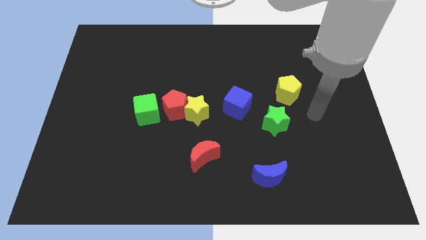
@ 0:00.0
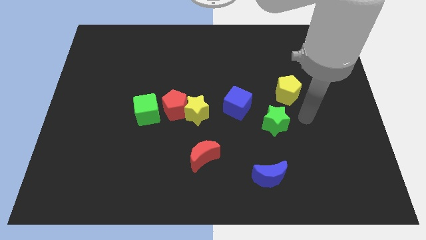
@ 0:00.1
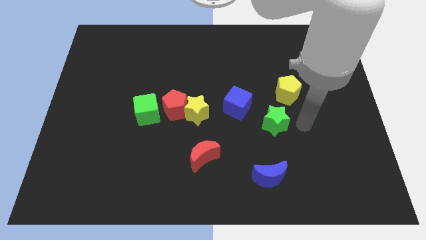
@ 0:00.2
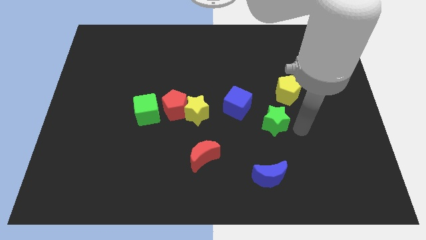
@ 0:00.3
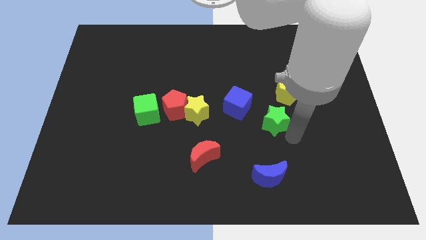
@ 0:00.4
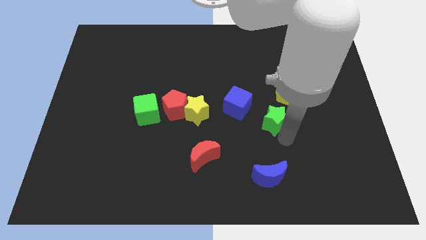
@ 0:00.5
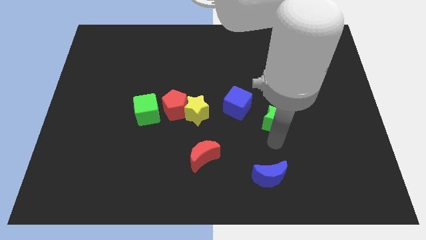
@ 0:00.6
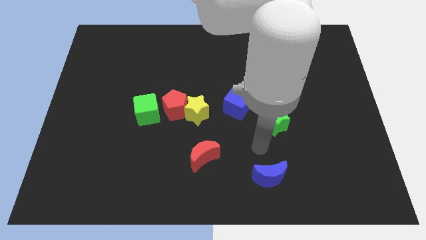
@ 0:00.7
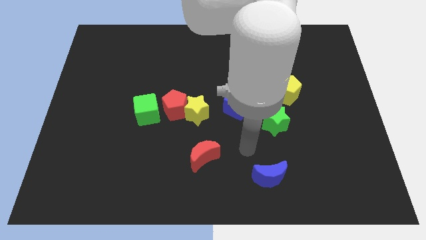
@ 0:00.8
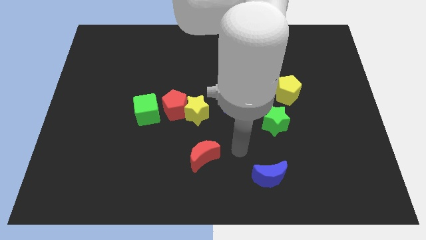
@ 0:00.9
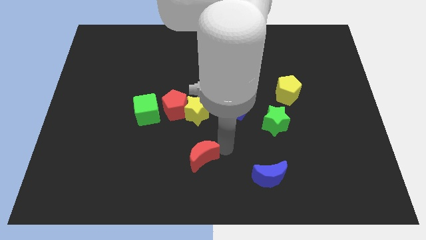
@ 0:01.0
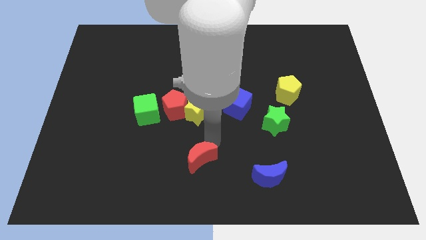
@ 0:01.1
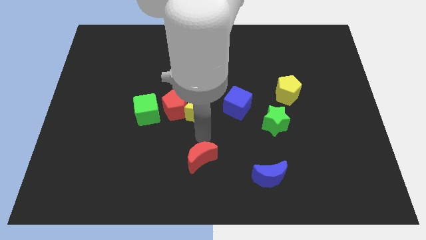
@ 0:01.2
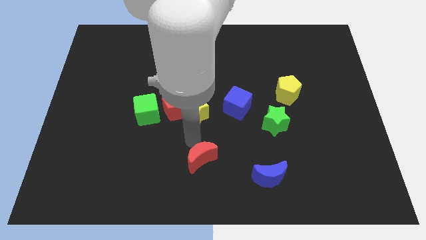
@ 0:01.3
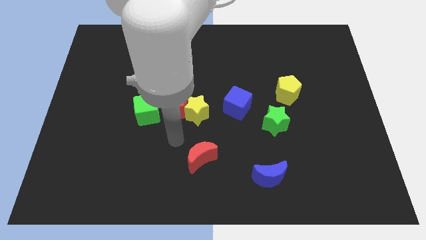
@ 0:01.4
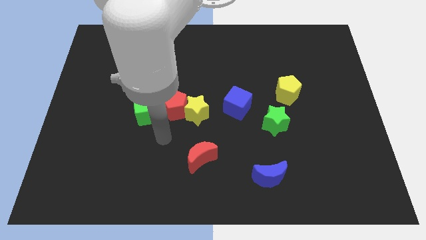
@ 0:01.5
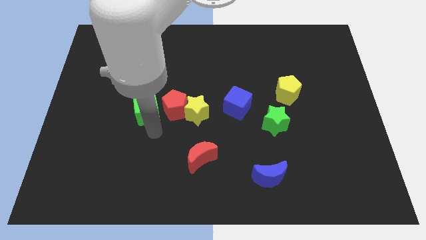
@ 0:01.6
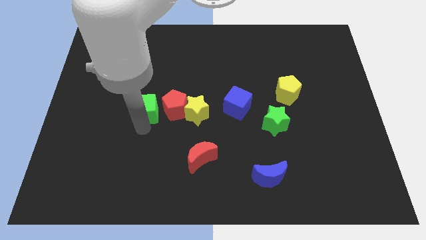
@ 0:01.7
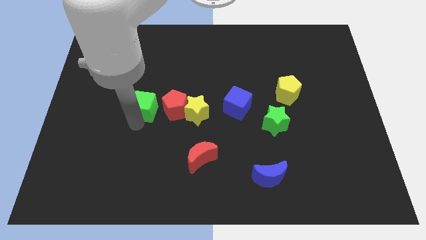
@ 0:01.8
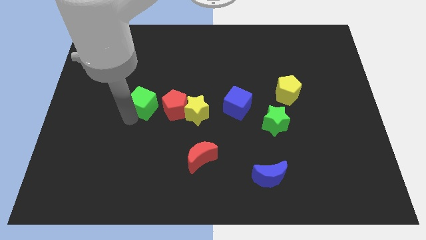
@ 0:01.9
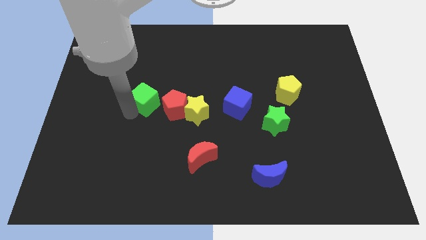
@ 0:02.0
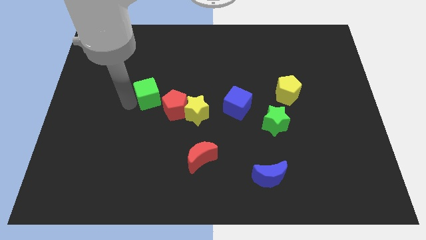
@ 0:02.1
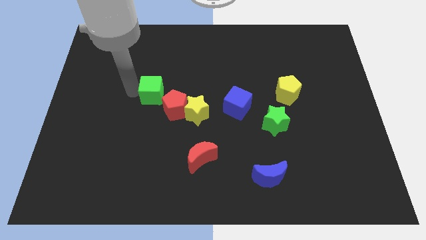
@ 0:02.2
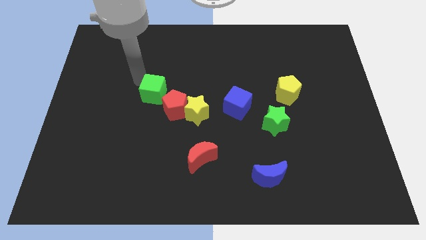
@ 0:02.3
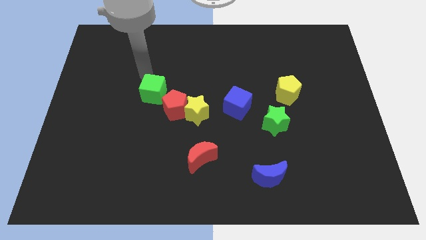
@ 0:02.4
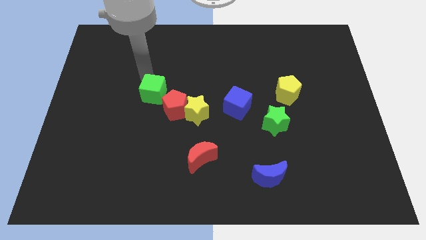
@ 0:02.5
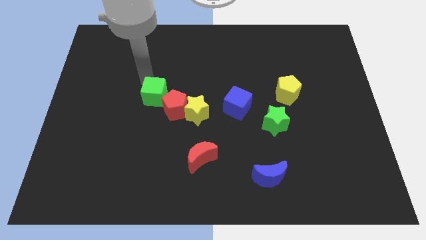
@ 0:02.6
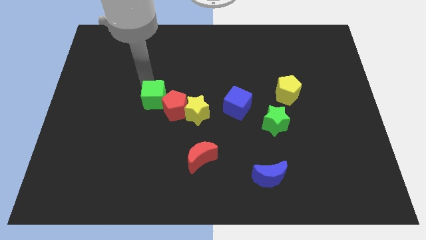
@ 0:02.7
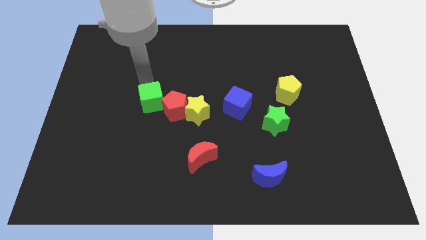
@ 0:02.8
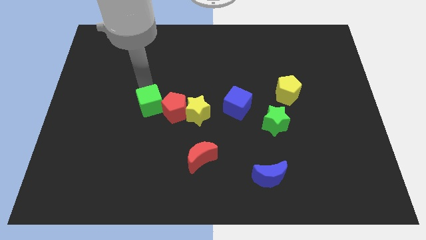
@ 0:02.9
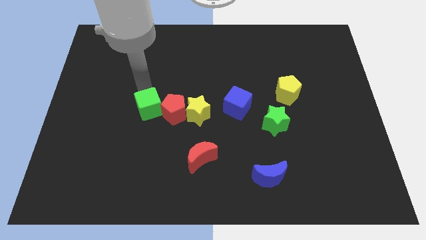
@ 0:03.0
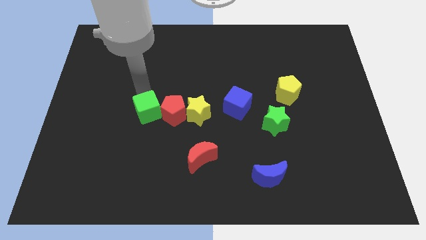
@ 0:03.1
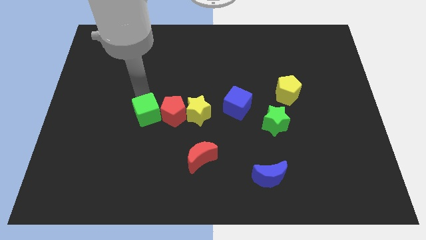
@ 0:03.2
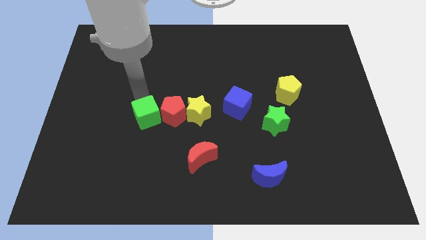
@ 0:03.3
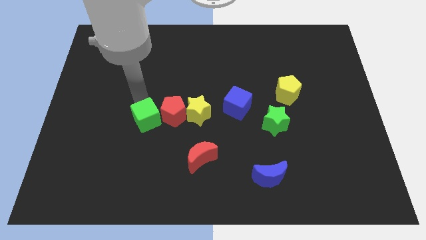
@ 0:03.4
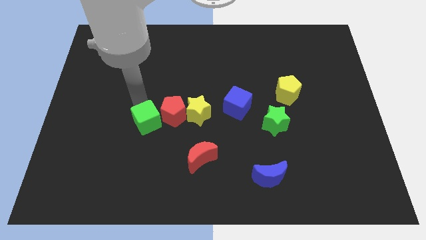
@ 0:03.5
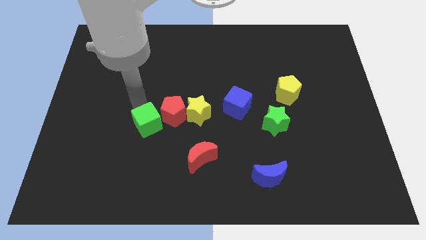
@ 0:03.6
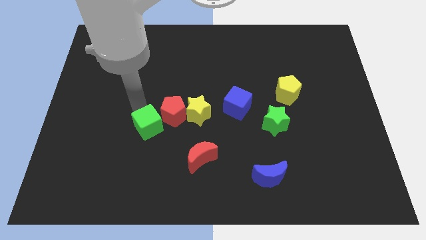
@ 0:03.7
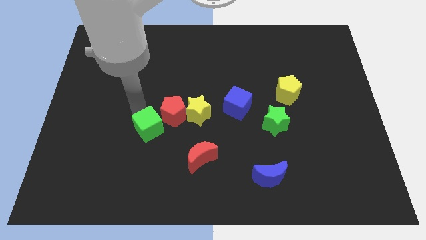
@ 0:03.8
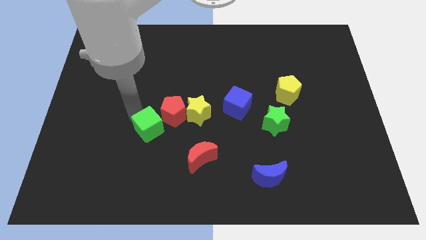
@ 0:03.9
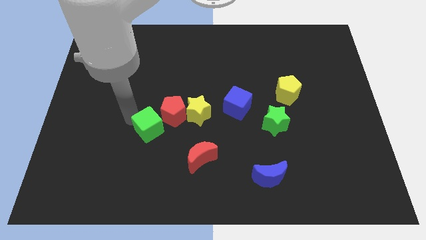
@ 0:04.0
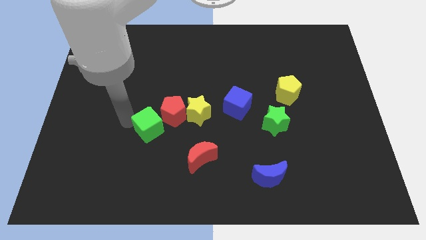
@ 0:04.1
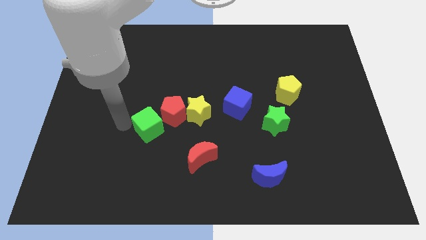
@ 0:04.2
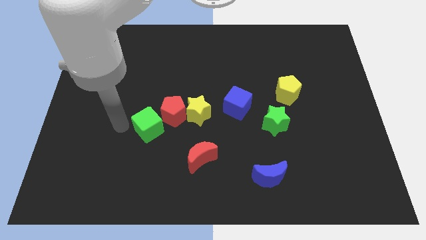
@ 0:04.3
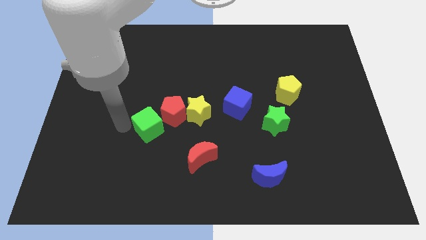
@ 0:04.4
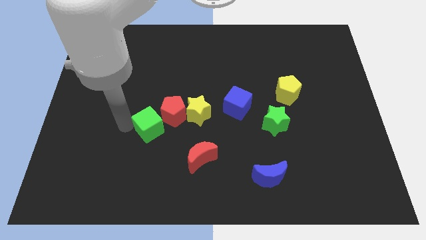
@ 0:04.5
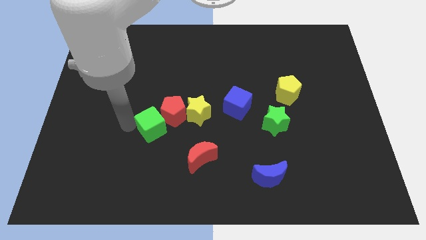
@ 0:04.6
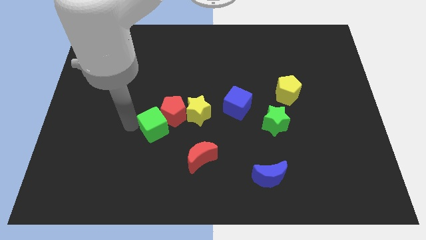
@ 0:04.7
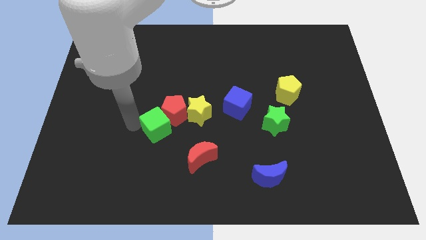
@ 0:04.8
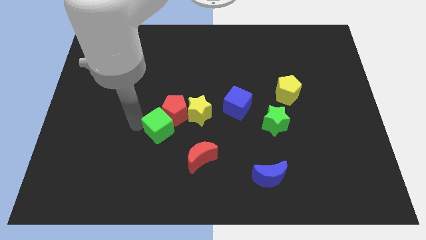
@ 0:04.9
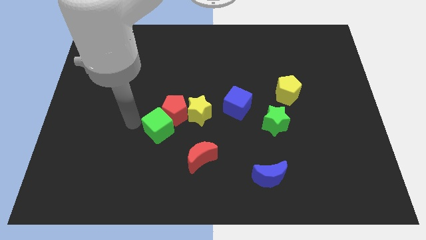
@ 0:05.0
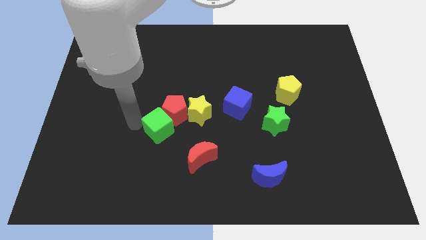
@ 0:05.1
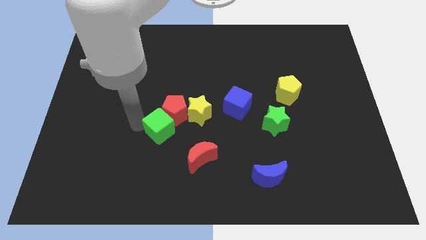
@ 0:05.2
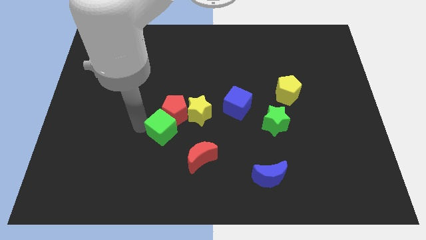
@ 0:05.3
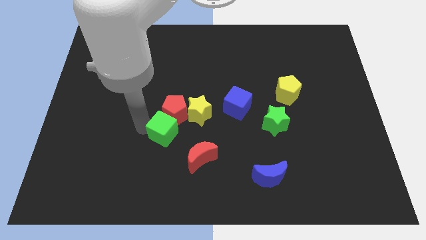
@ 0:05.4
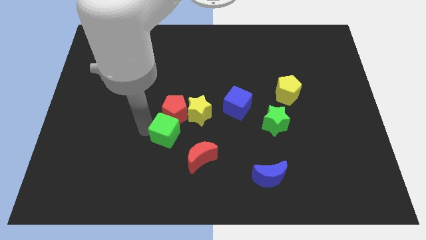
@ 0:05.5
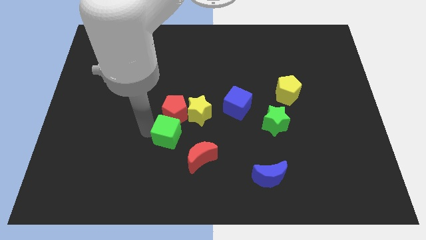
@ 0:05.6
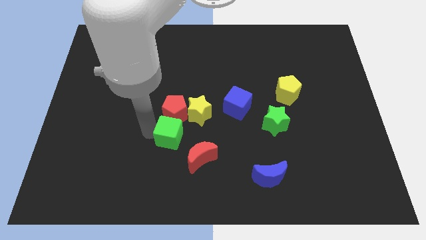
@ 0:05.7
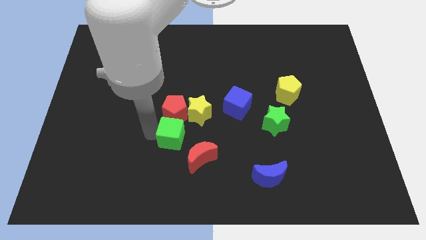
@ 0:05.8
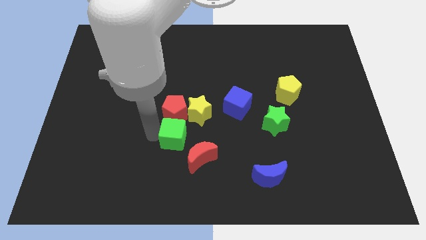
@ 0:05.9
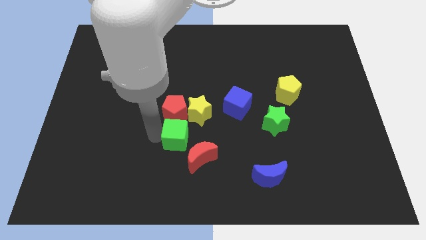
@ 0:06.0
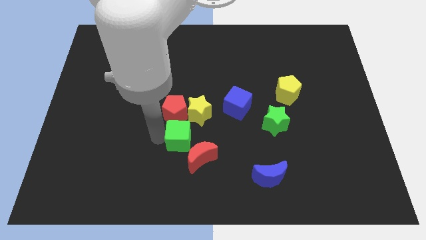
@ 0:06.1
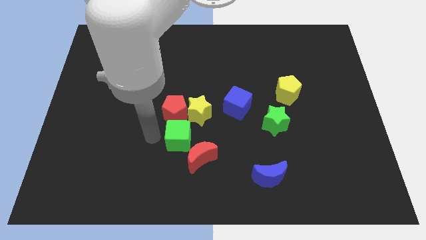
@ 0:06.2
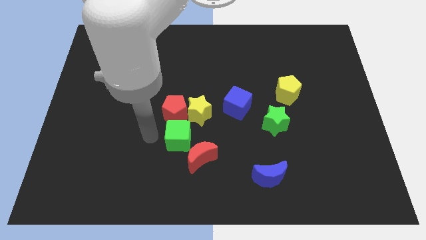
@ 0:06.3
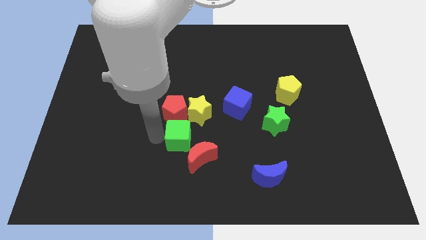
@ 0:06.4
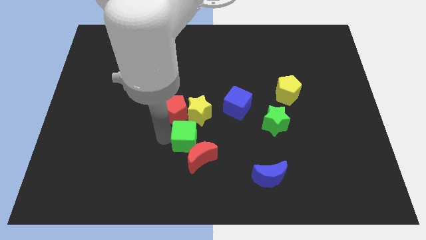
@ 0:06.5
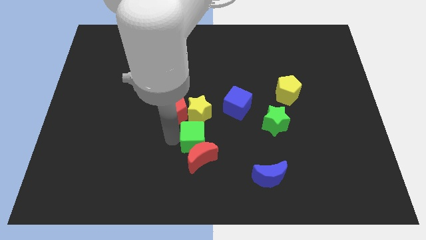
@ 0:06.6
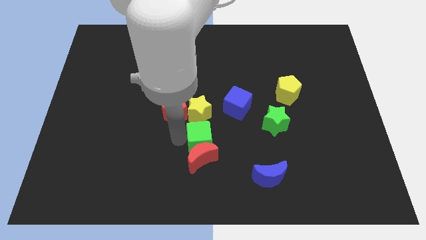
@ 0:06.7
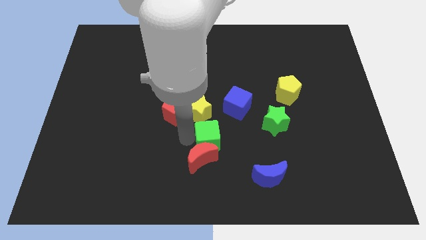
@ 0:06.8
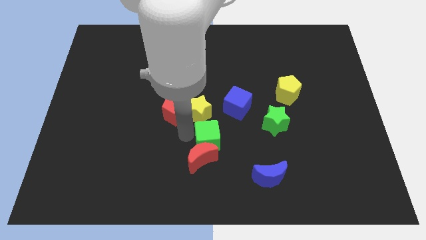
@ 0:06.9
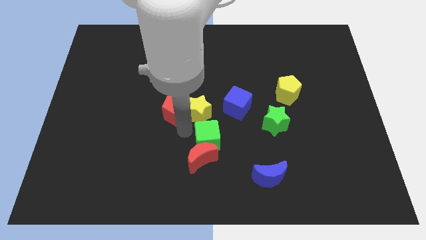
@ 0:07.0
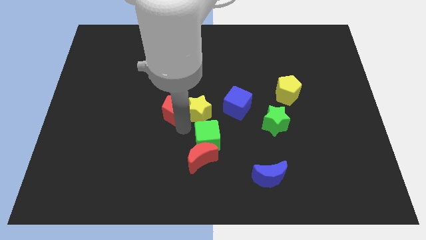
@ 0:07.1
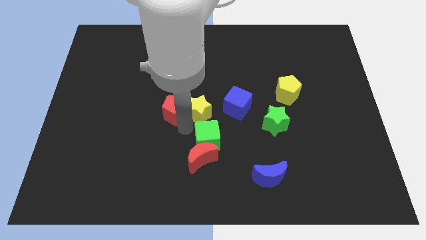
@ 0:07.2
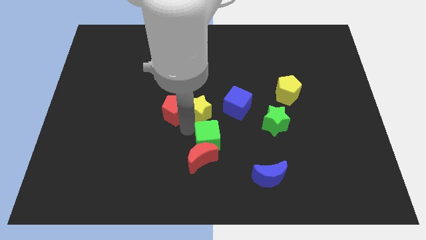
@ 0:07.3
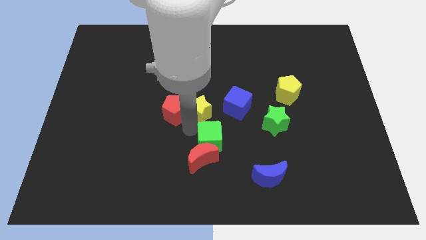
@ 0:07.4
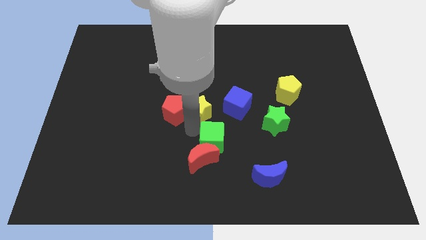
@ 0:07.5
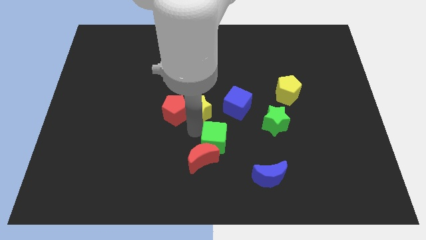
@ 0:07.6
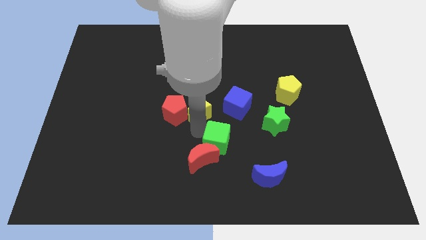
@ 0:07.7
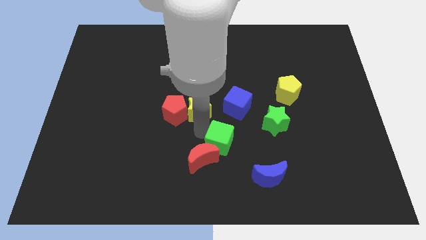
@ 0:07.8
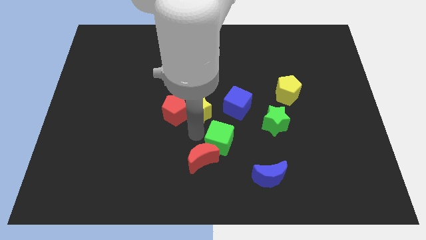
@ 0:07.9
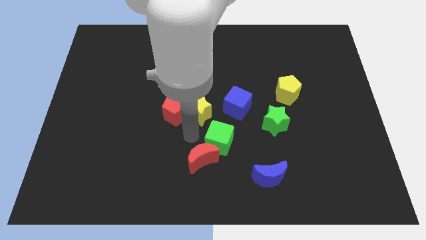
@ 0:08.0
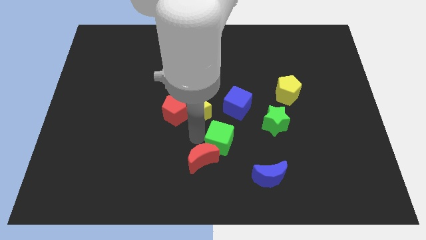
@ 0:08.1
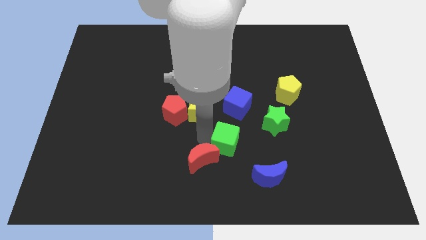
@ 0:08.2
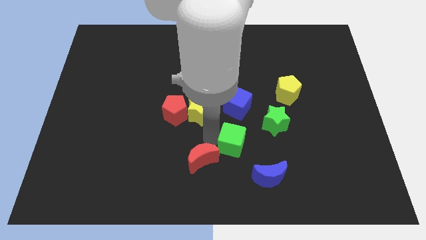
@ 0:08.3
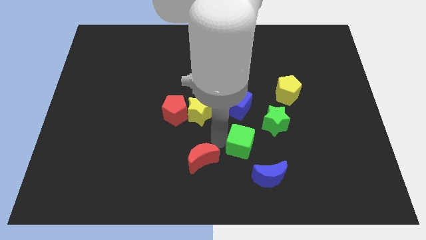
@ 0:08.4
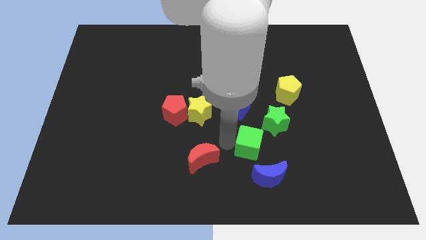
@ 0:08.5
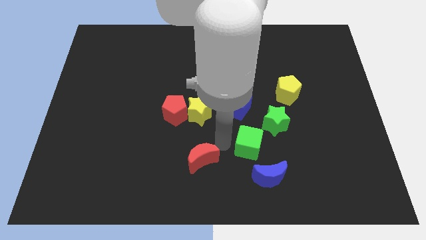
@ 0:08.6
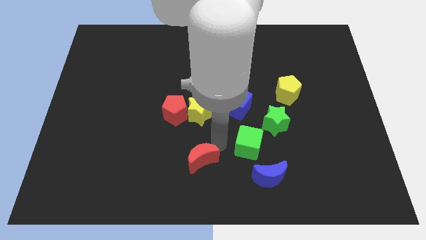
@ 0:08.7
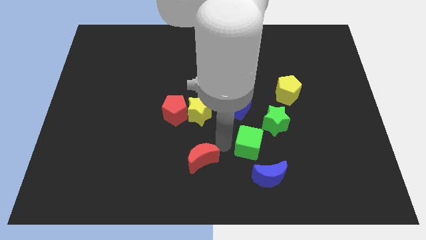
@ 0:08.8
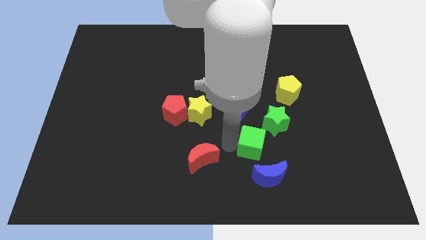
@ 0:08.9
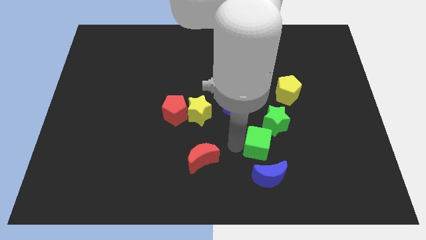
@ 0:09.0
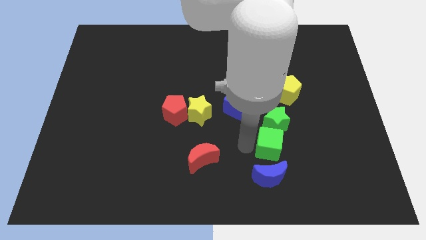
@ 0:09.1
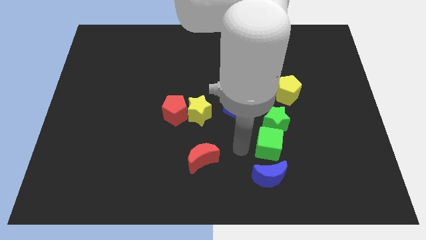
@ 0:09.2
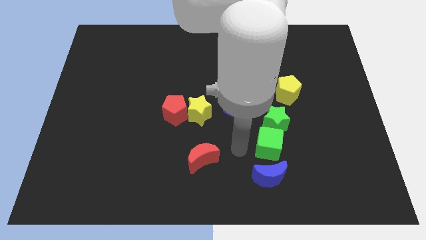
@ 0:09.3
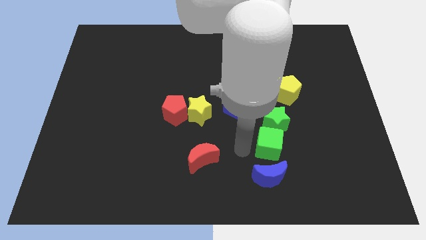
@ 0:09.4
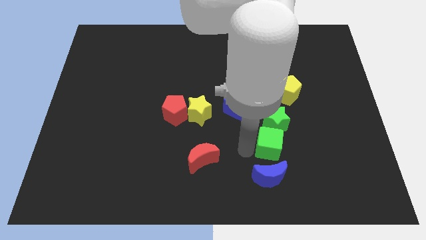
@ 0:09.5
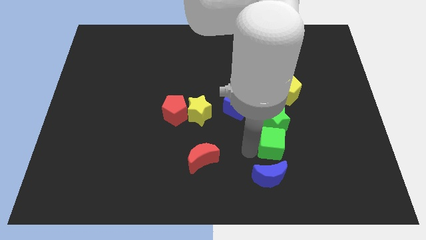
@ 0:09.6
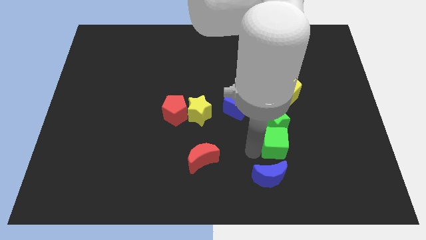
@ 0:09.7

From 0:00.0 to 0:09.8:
slide the green cube diagonally down and to the right of the green star
